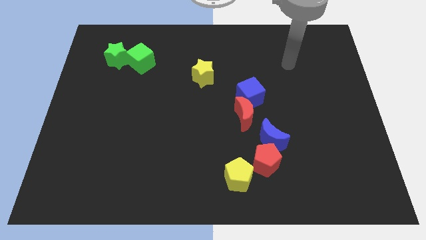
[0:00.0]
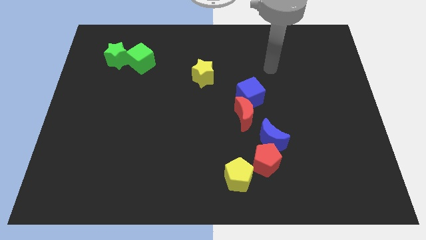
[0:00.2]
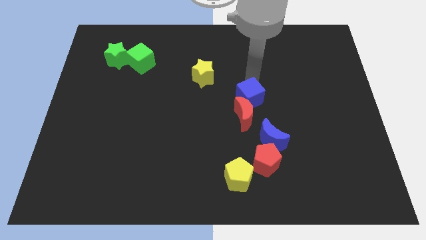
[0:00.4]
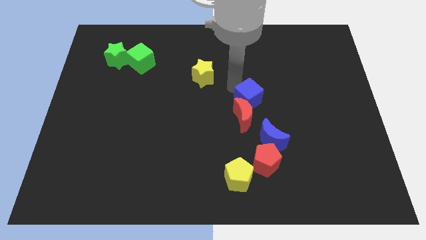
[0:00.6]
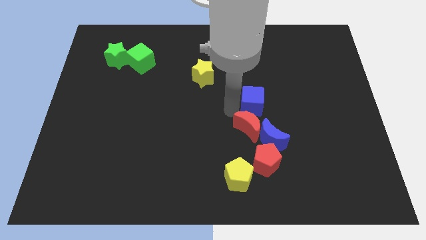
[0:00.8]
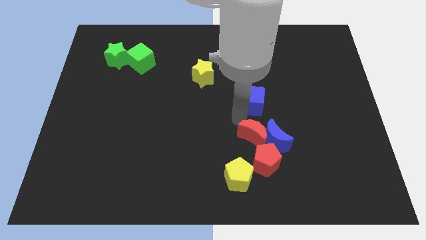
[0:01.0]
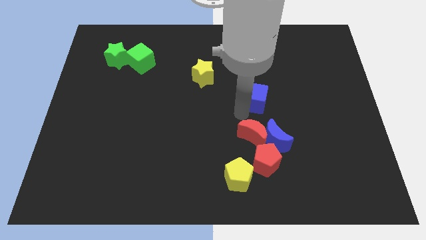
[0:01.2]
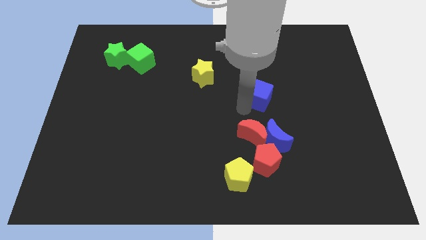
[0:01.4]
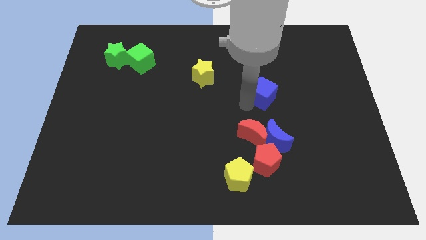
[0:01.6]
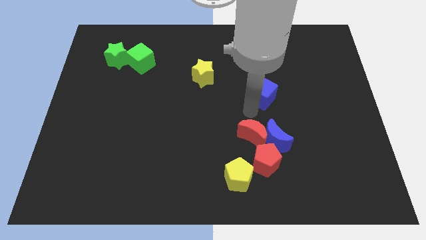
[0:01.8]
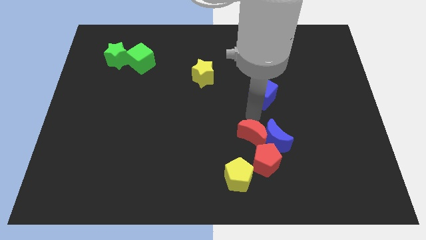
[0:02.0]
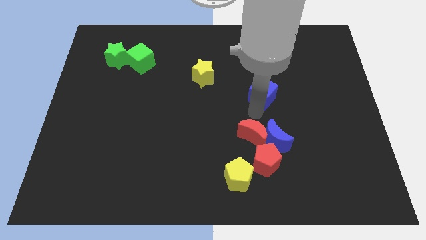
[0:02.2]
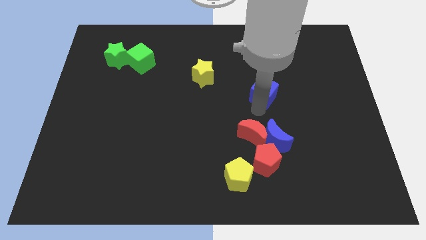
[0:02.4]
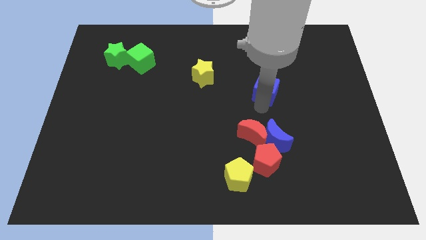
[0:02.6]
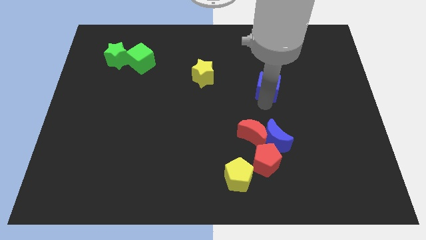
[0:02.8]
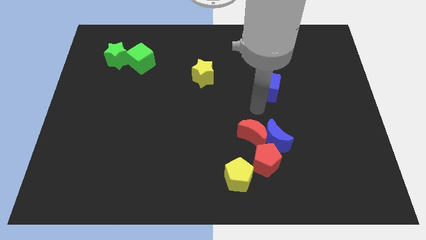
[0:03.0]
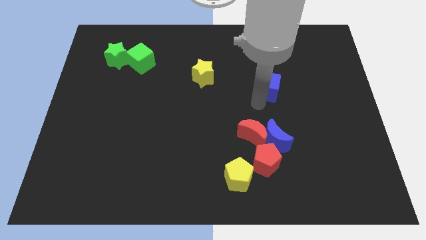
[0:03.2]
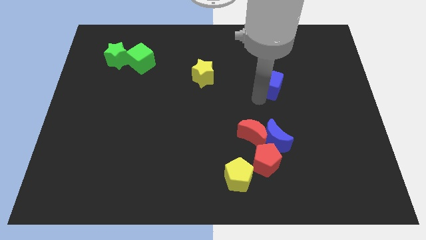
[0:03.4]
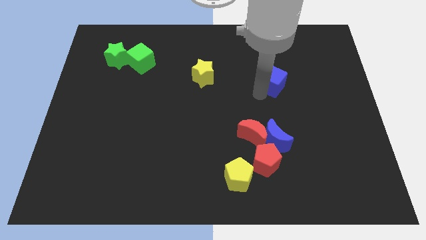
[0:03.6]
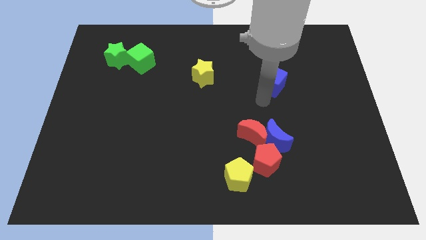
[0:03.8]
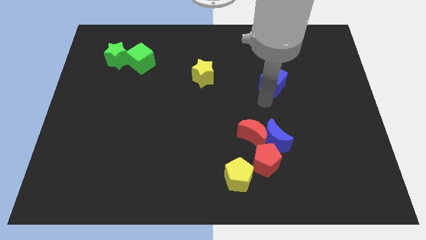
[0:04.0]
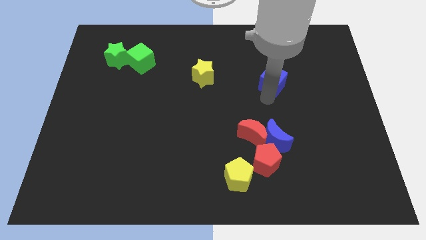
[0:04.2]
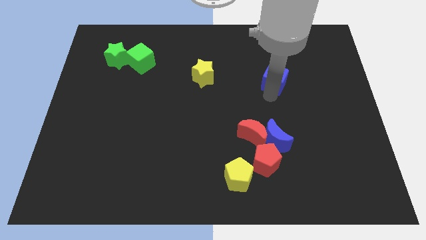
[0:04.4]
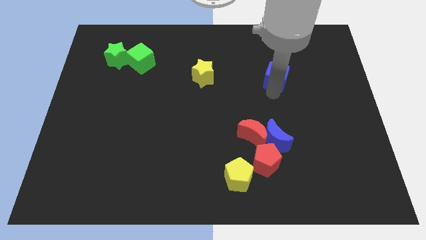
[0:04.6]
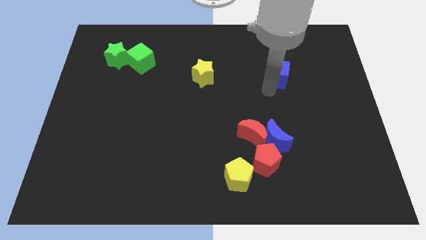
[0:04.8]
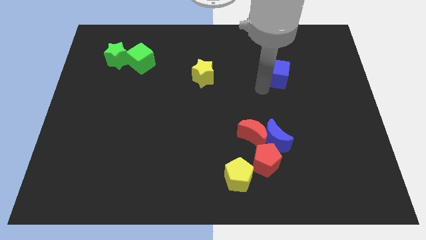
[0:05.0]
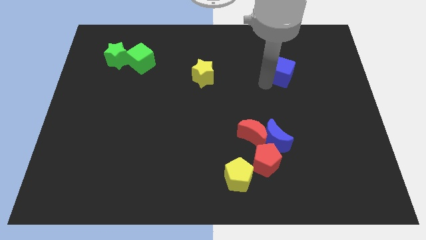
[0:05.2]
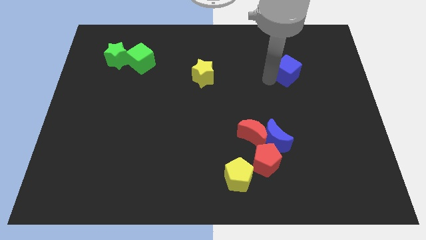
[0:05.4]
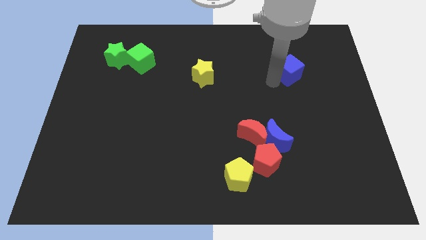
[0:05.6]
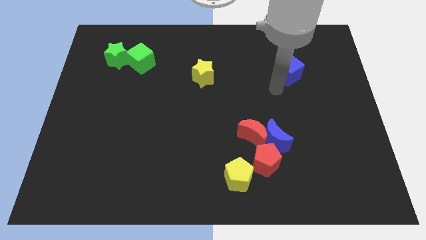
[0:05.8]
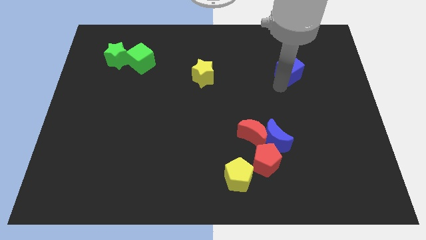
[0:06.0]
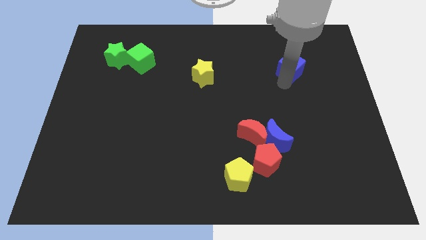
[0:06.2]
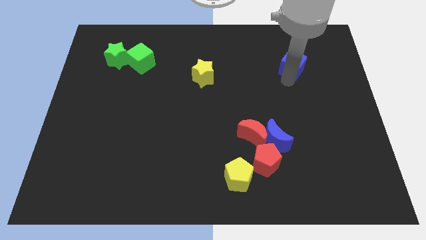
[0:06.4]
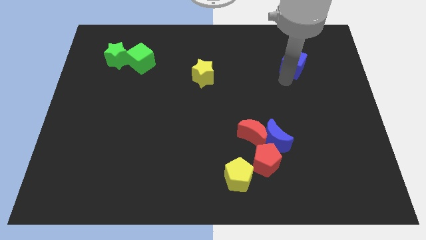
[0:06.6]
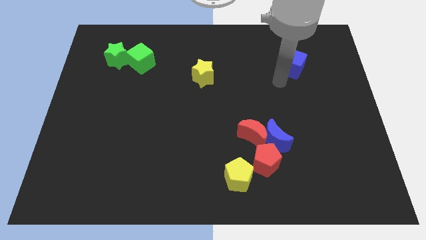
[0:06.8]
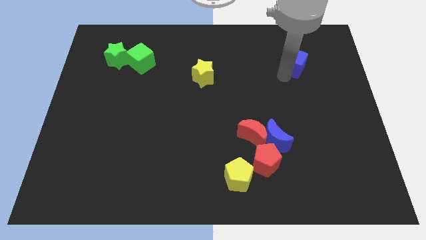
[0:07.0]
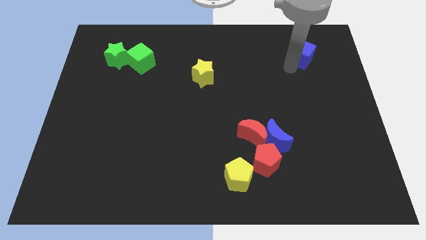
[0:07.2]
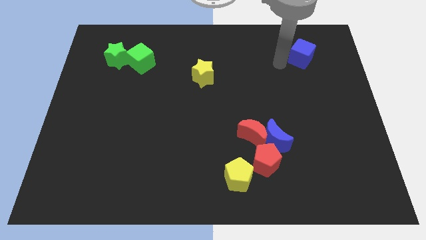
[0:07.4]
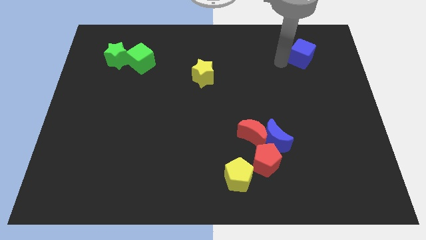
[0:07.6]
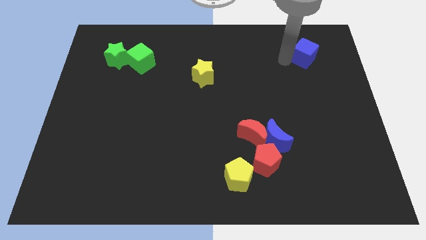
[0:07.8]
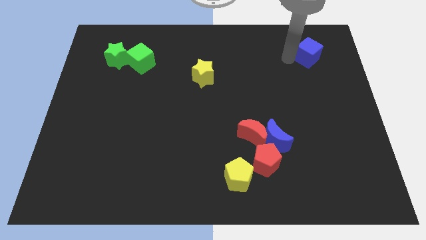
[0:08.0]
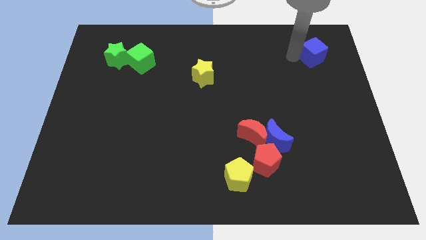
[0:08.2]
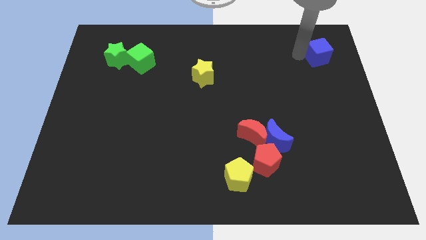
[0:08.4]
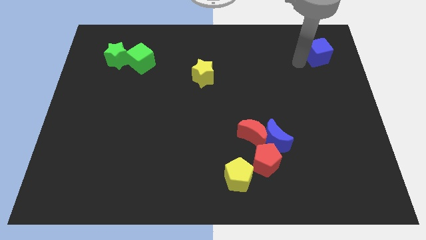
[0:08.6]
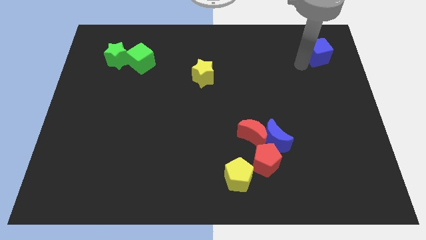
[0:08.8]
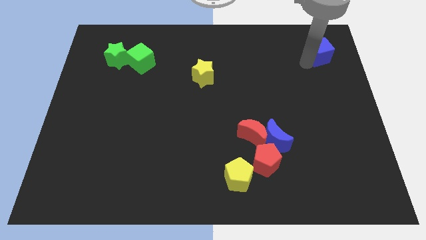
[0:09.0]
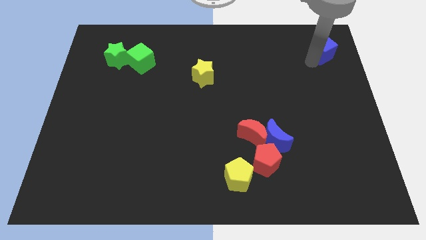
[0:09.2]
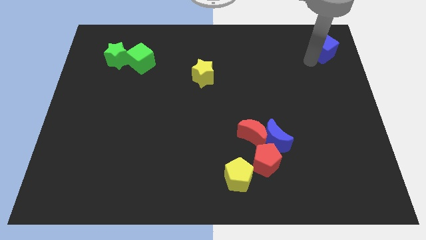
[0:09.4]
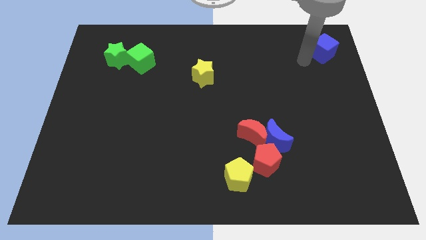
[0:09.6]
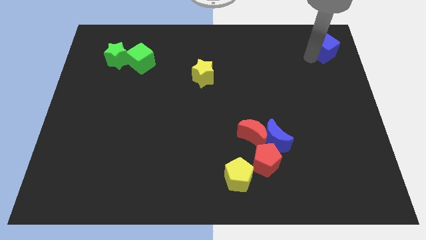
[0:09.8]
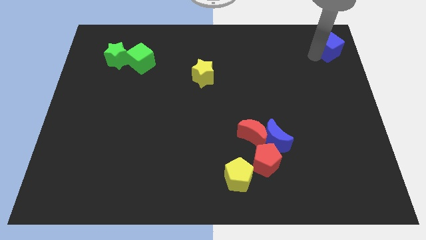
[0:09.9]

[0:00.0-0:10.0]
put the blue cube to the upper right corner

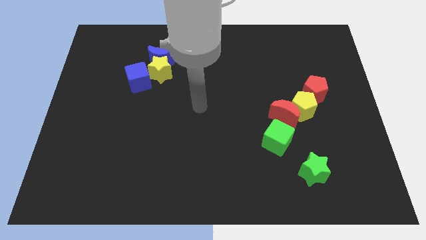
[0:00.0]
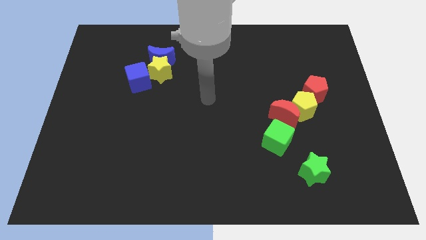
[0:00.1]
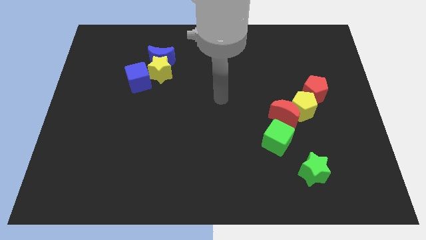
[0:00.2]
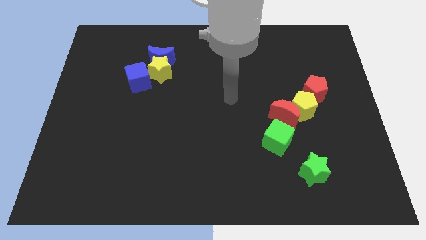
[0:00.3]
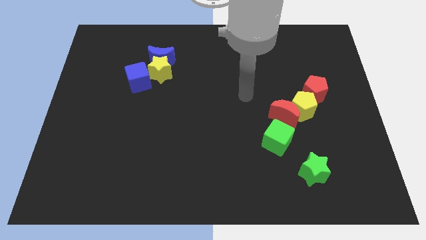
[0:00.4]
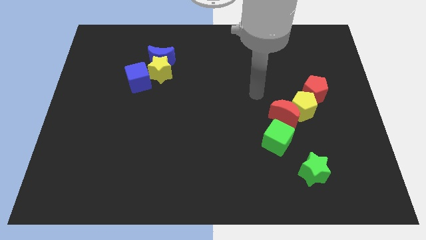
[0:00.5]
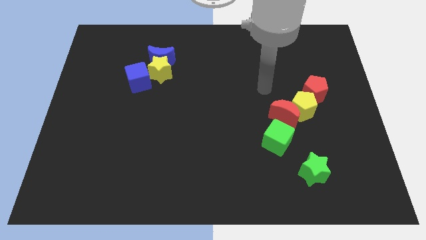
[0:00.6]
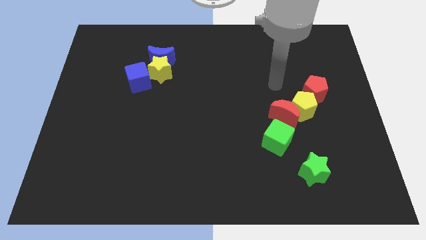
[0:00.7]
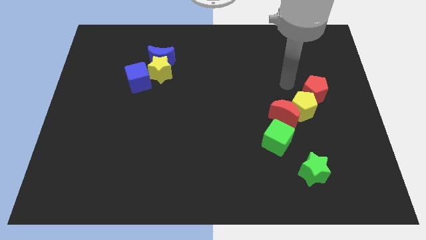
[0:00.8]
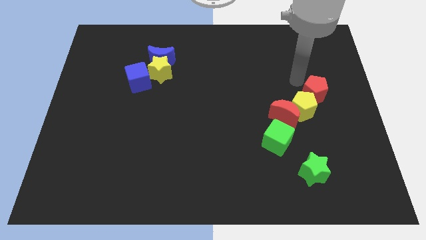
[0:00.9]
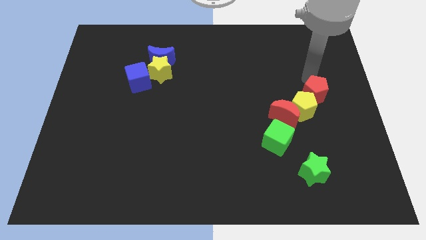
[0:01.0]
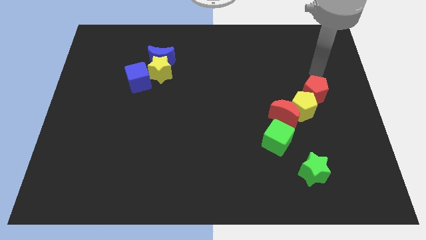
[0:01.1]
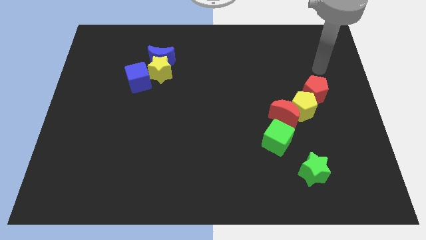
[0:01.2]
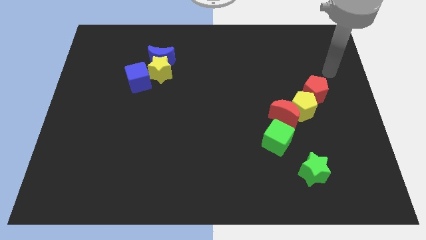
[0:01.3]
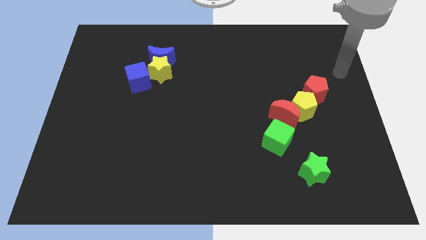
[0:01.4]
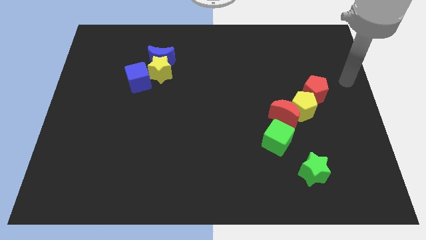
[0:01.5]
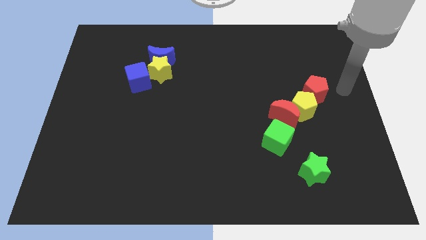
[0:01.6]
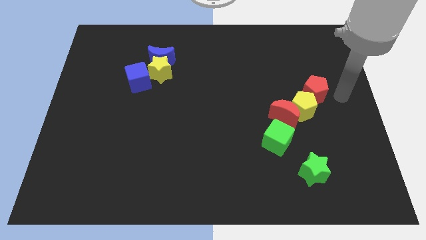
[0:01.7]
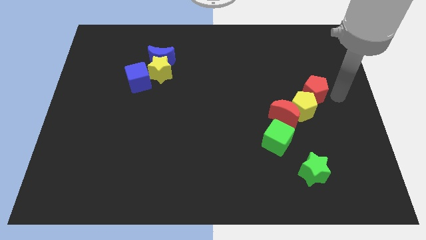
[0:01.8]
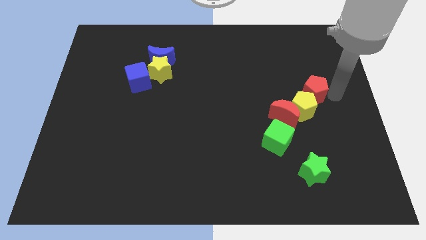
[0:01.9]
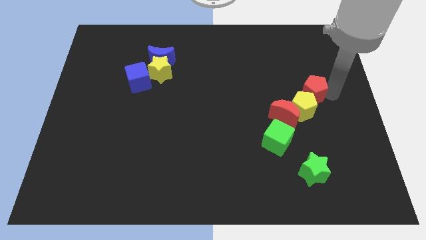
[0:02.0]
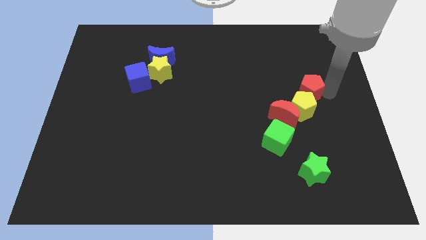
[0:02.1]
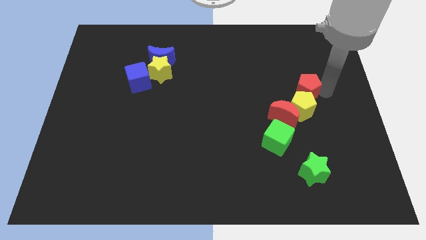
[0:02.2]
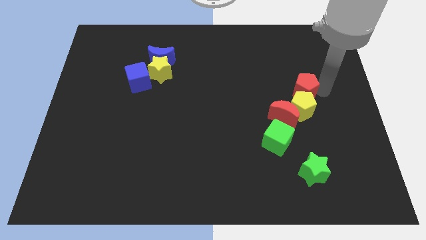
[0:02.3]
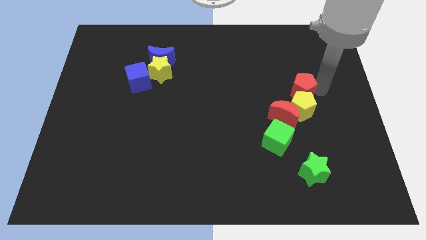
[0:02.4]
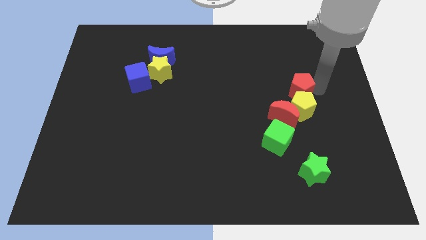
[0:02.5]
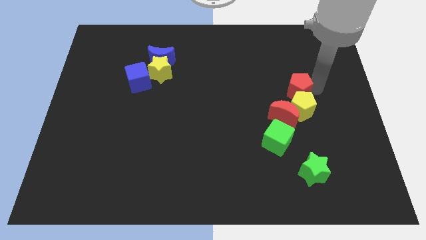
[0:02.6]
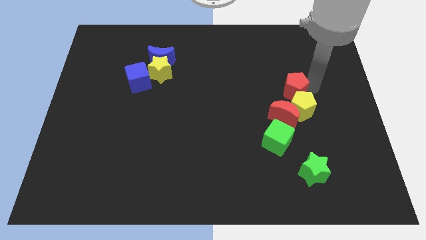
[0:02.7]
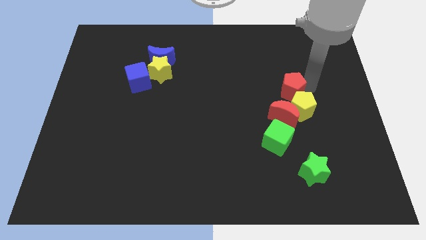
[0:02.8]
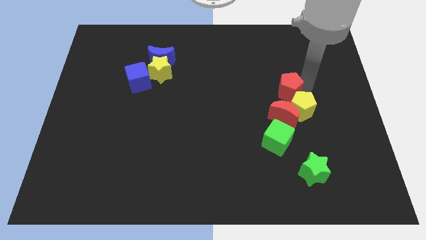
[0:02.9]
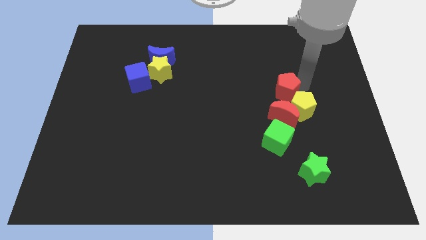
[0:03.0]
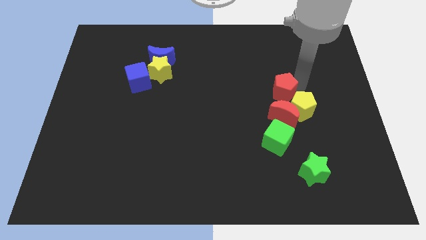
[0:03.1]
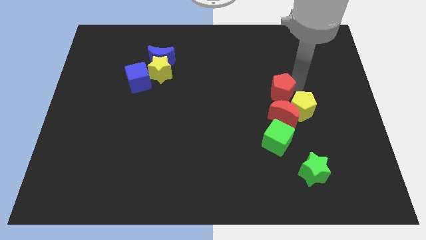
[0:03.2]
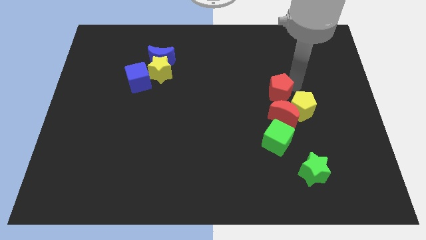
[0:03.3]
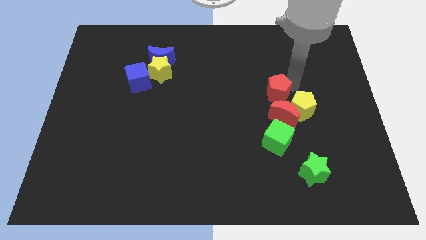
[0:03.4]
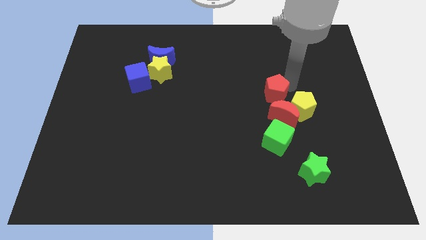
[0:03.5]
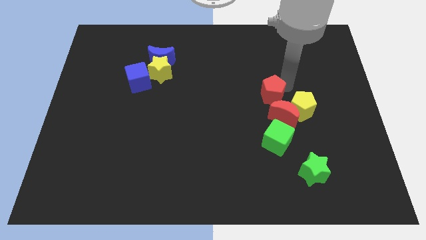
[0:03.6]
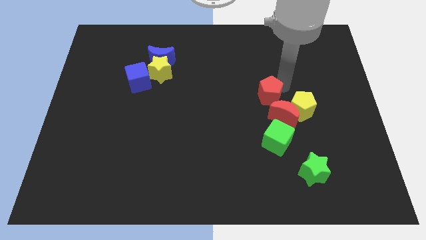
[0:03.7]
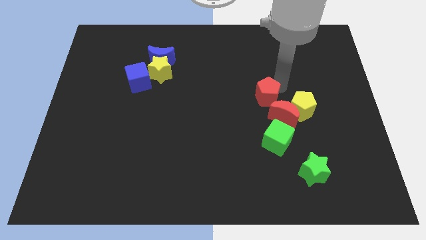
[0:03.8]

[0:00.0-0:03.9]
push the red pentagon to the middle
